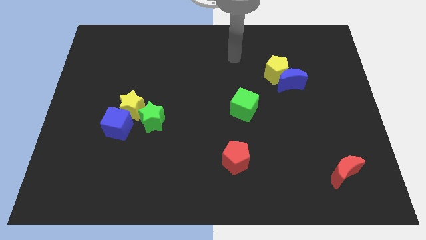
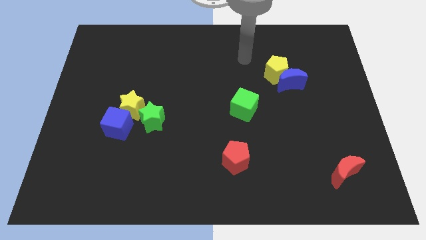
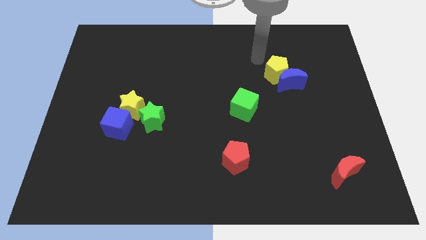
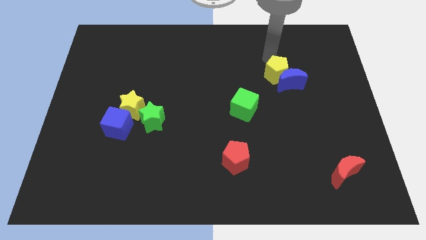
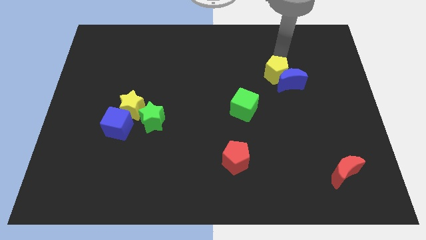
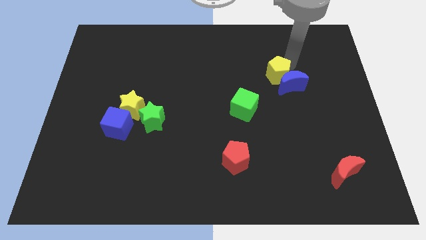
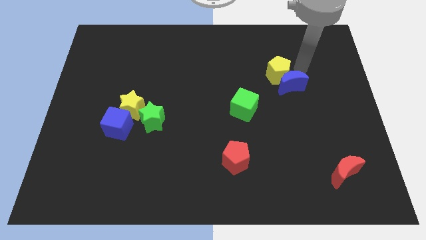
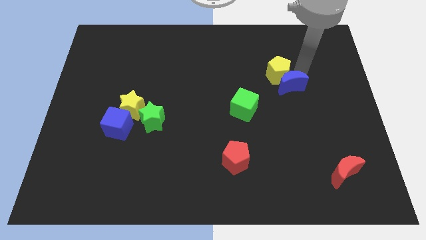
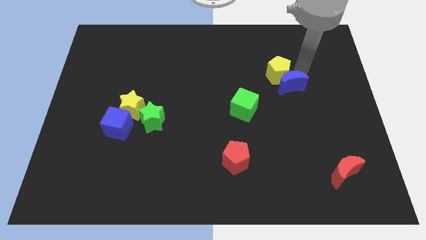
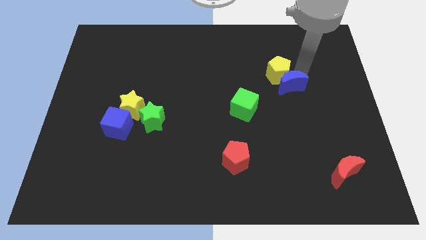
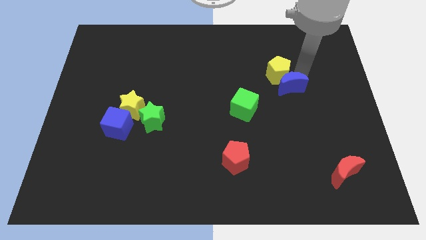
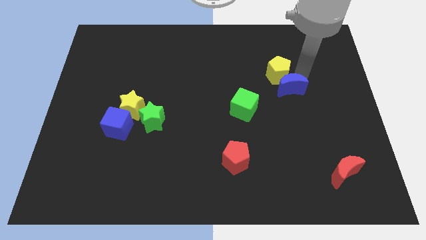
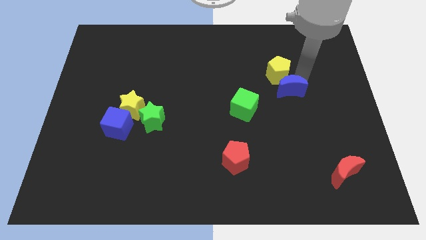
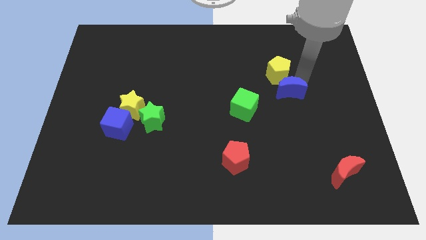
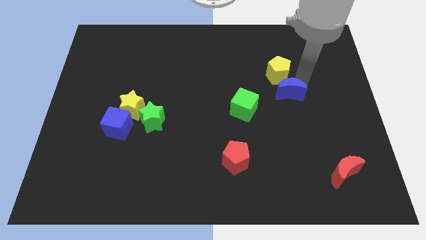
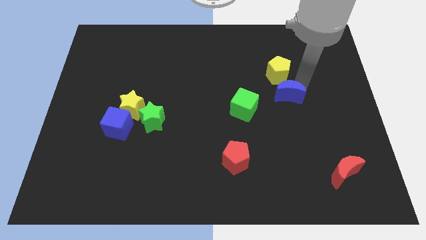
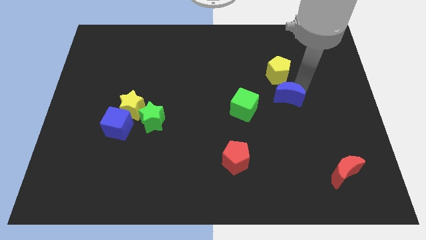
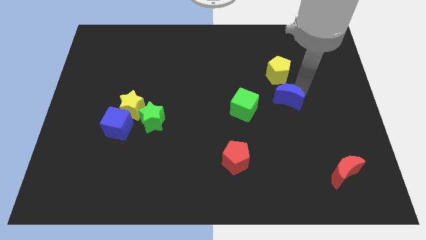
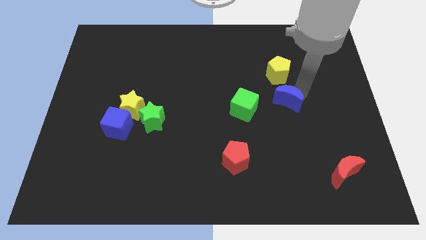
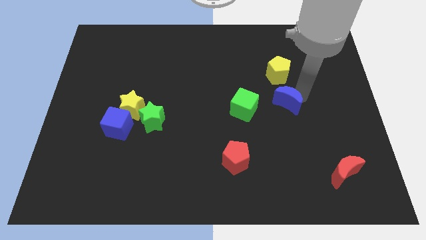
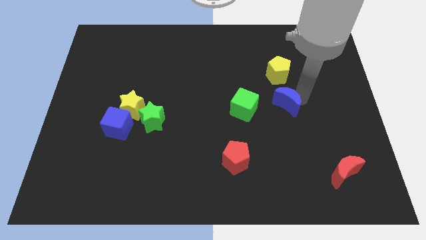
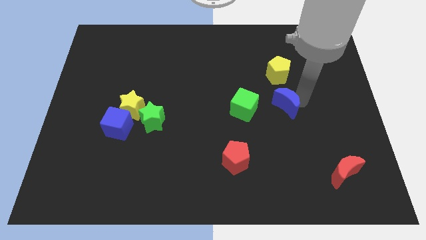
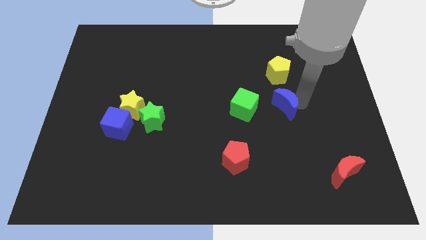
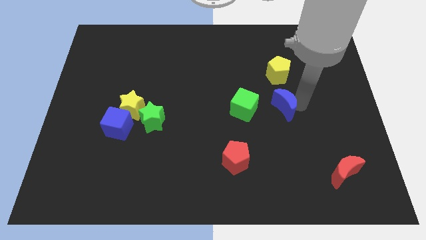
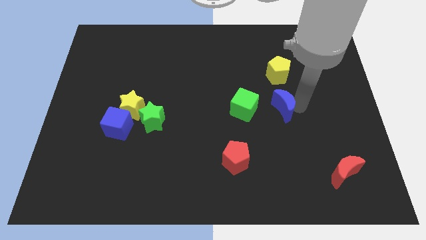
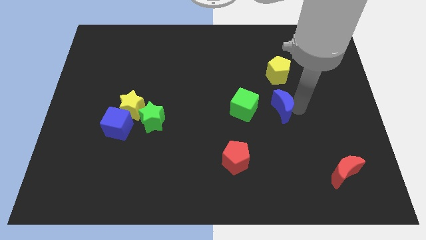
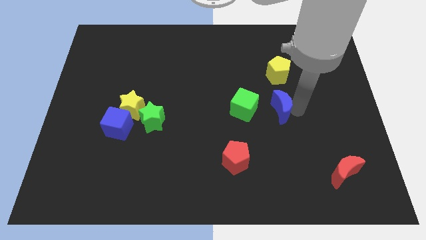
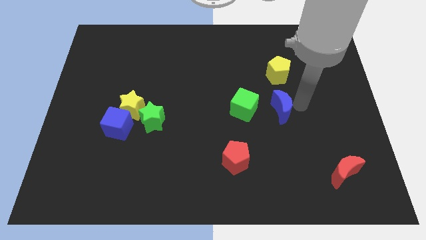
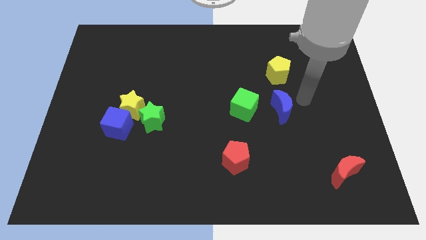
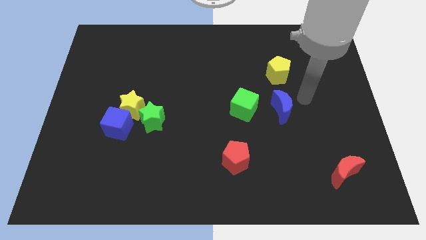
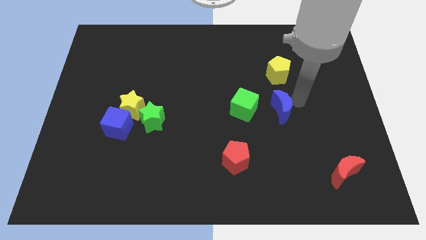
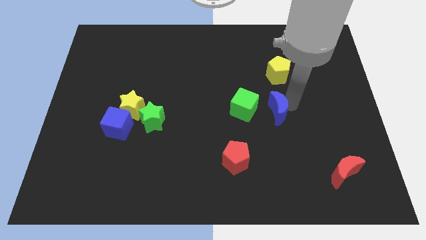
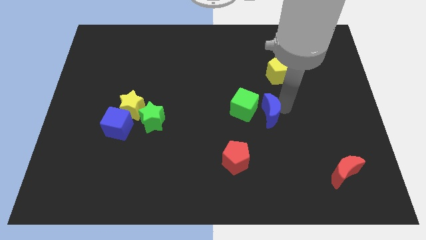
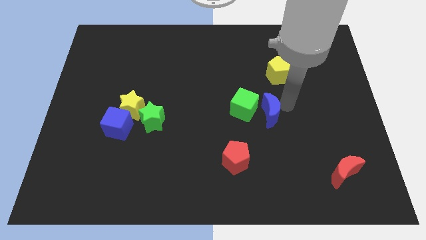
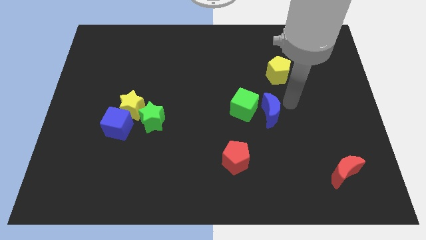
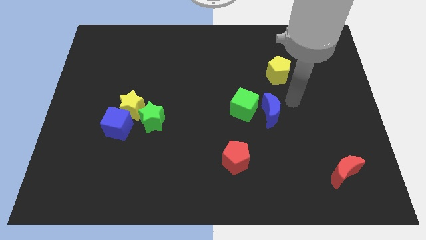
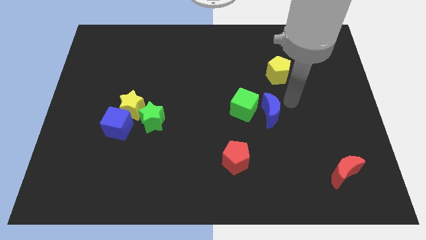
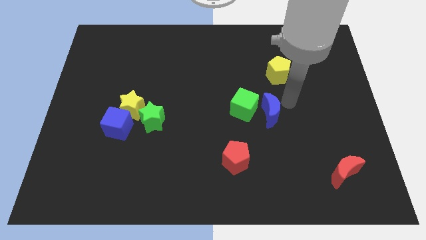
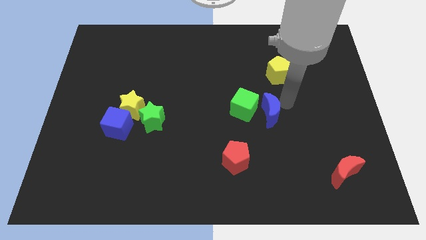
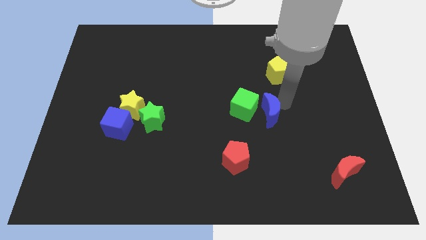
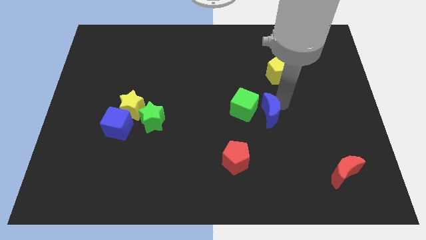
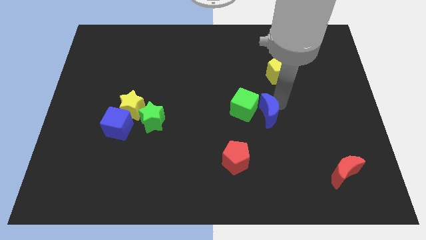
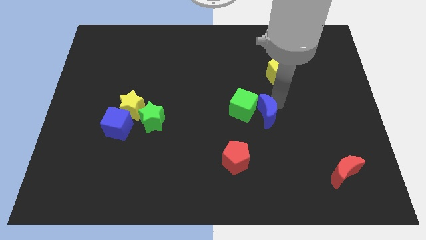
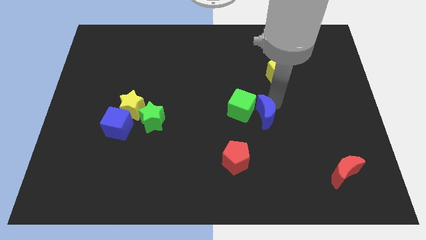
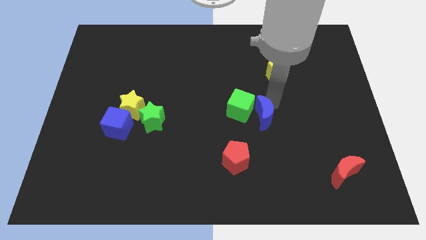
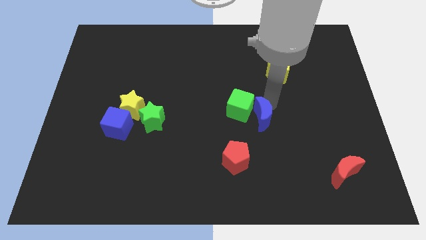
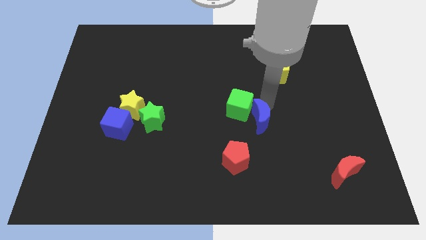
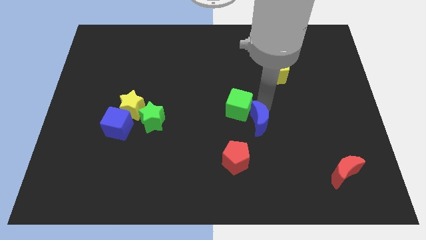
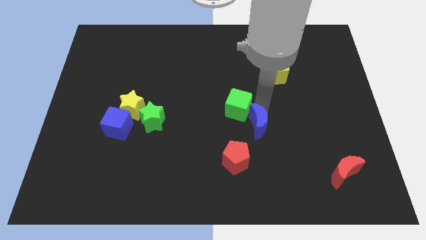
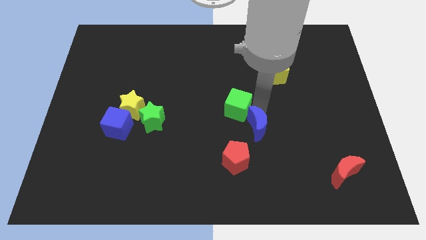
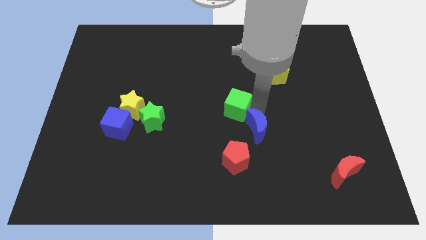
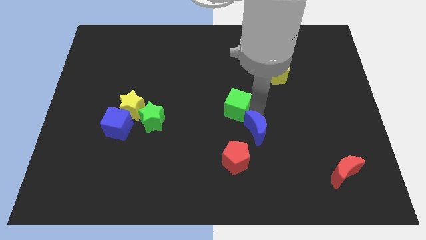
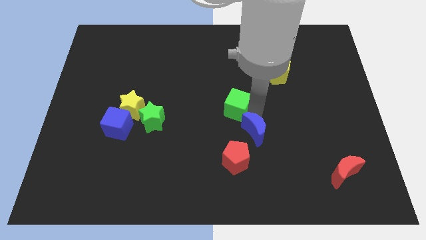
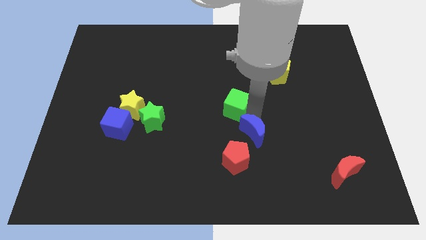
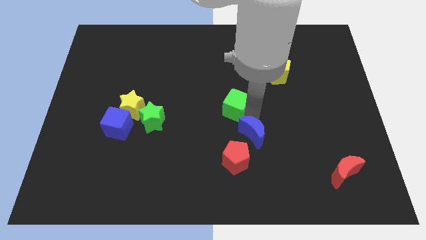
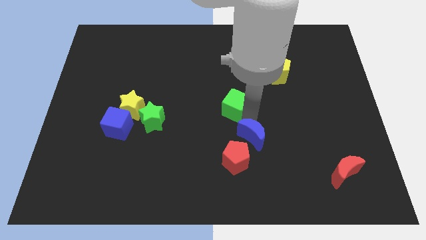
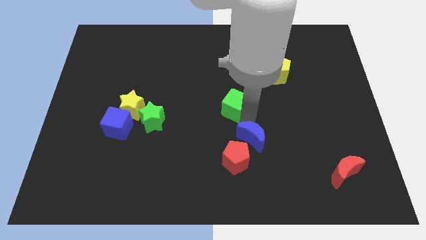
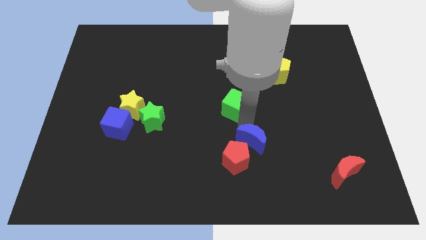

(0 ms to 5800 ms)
move the blue moon next to the red pentagon

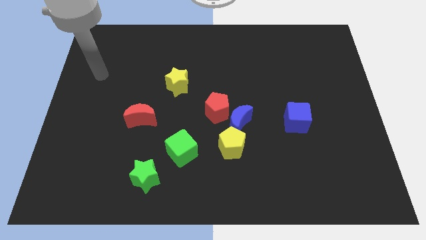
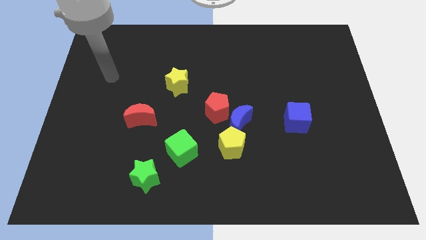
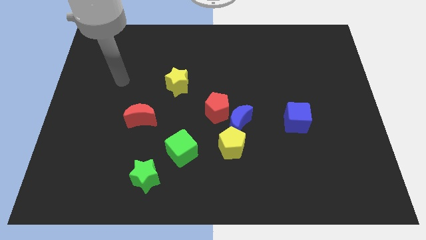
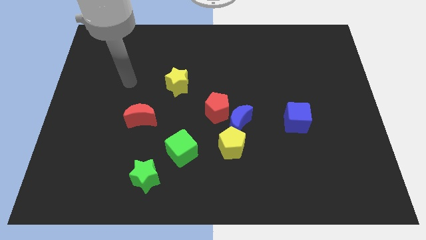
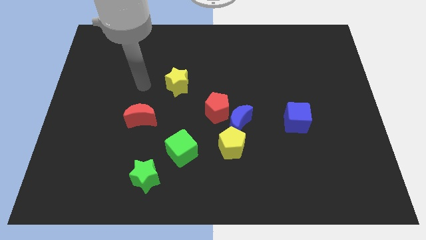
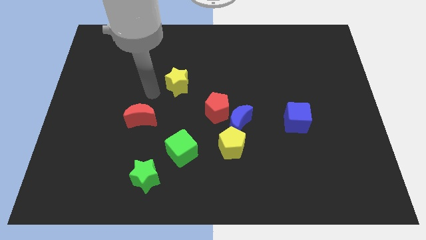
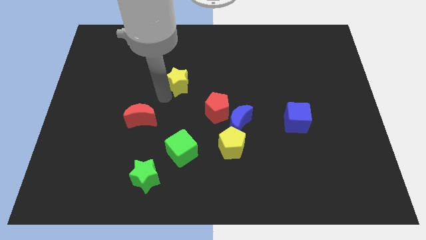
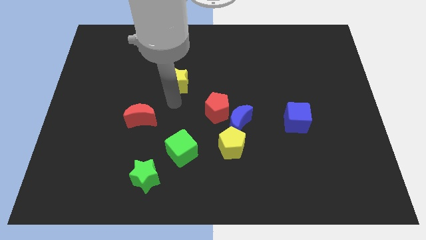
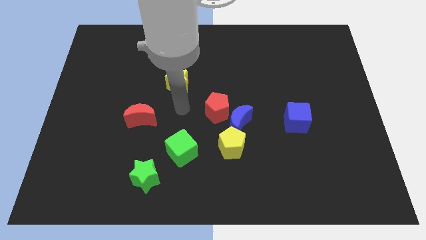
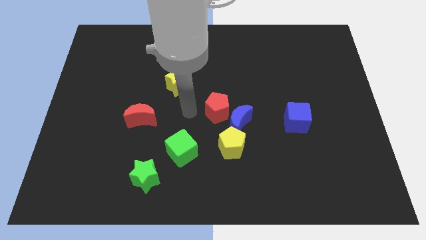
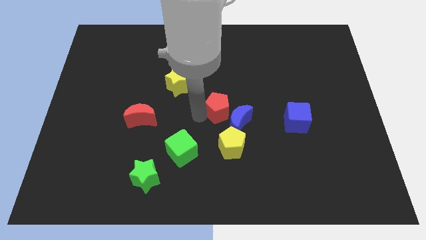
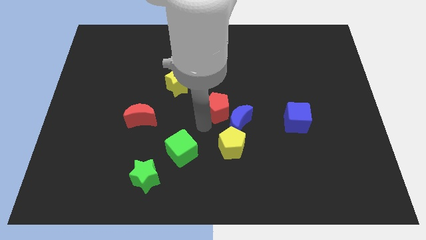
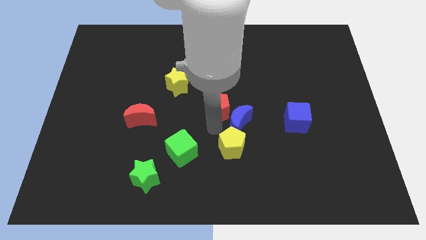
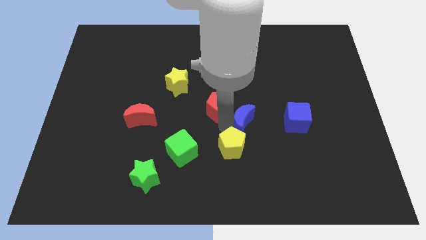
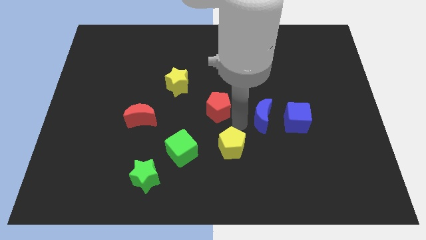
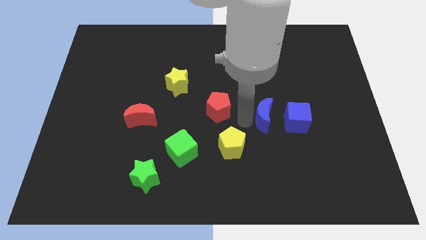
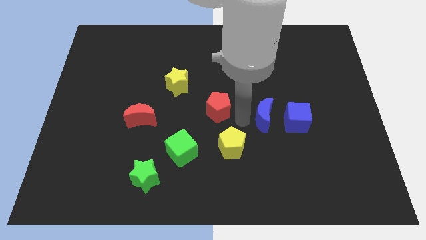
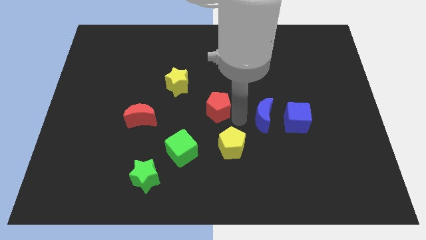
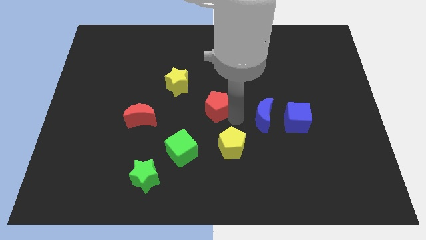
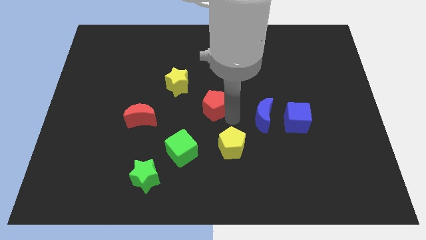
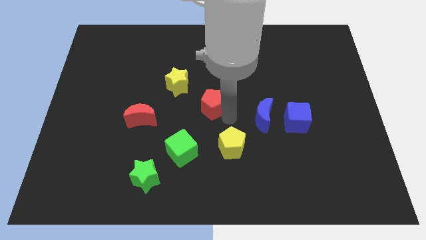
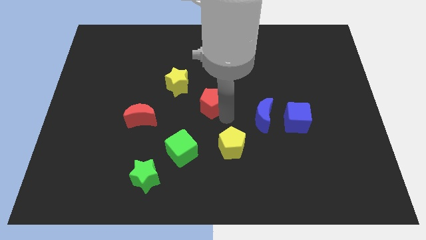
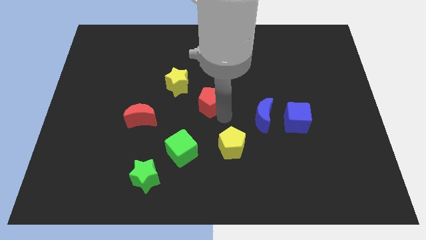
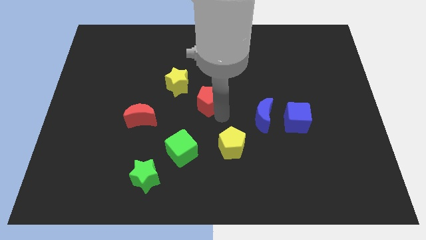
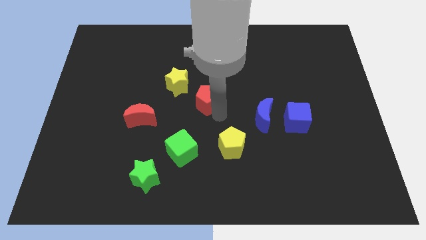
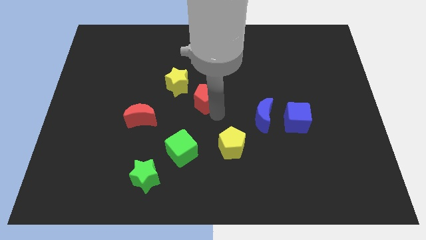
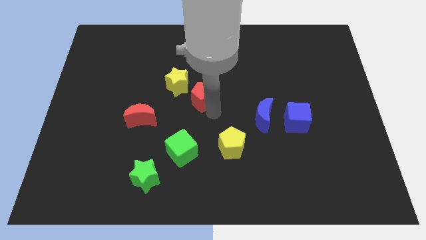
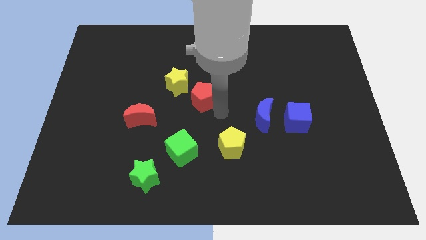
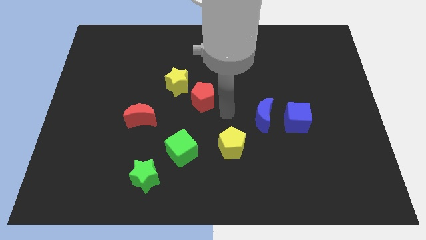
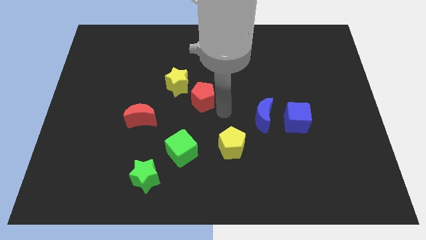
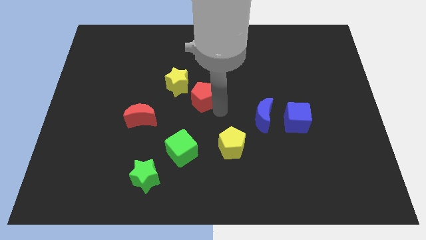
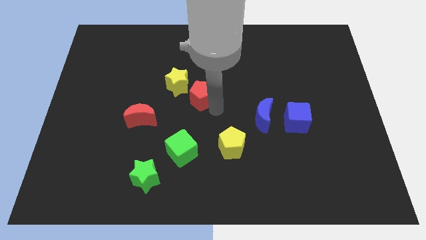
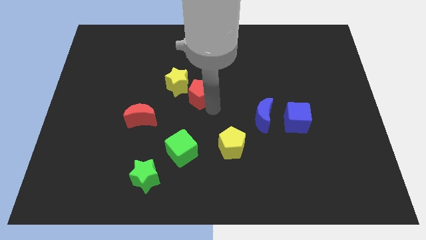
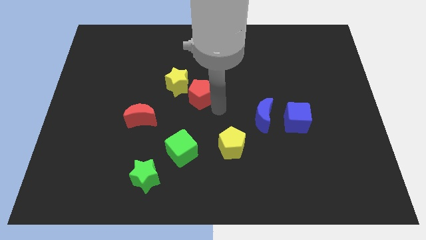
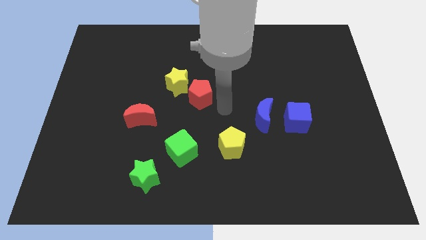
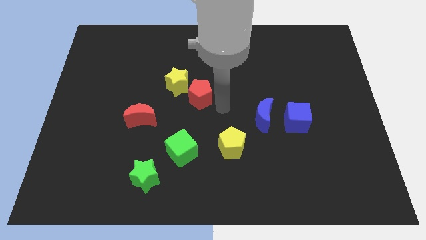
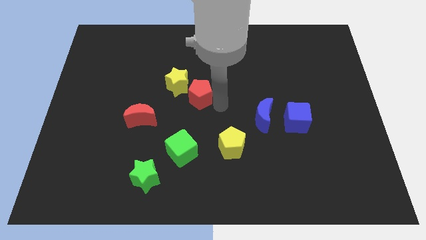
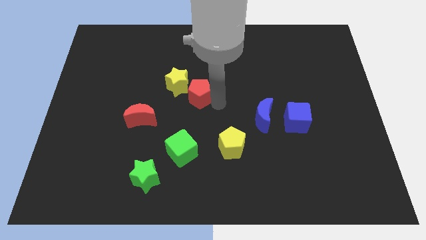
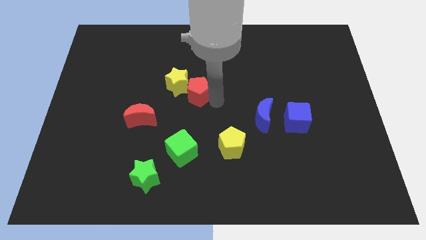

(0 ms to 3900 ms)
put the red pentagon next to the yellow star
